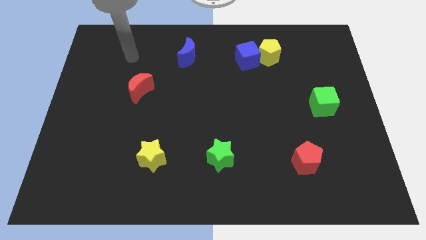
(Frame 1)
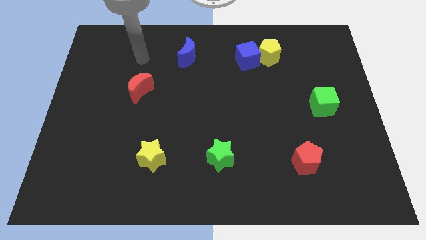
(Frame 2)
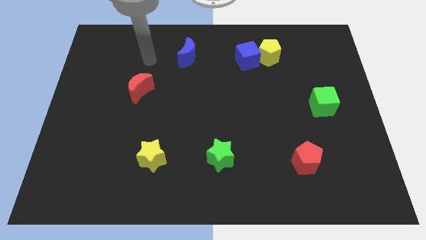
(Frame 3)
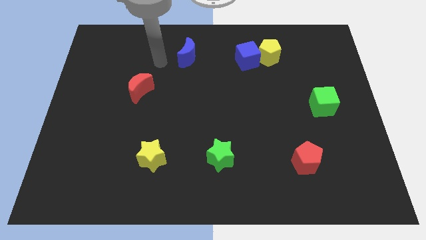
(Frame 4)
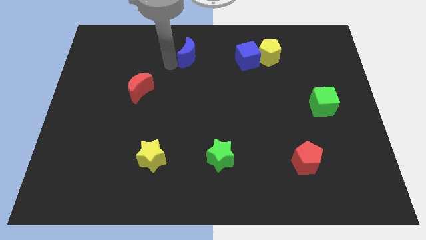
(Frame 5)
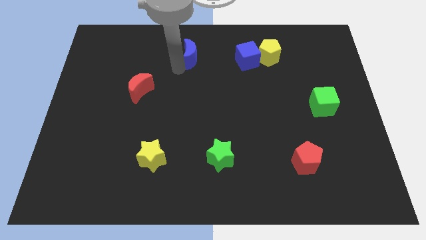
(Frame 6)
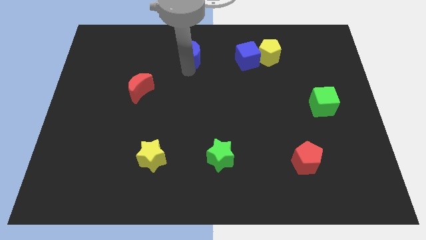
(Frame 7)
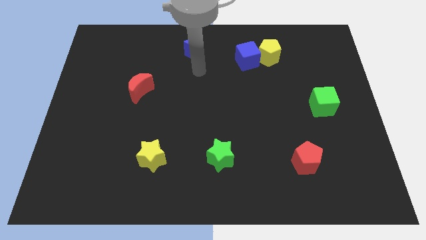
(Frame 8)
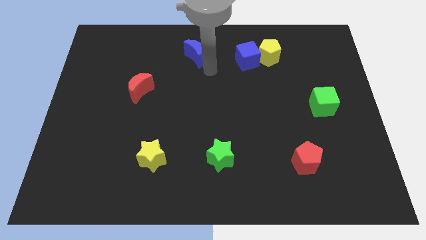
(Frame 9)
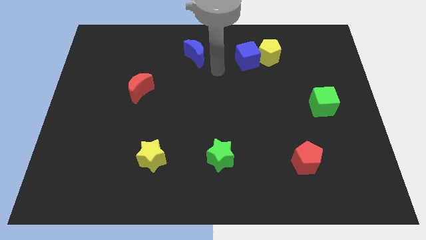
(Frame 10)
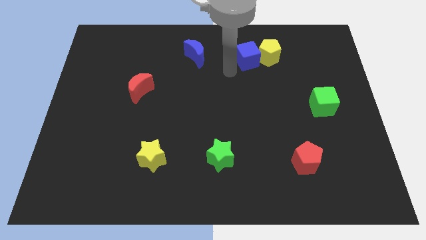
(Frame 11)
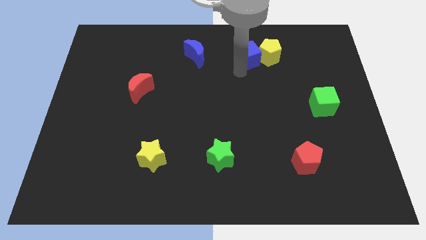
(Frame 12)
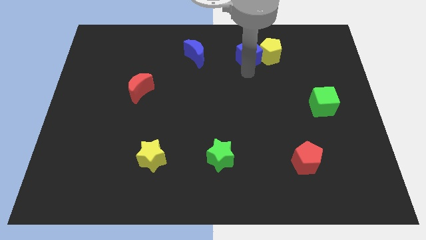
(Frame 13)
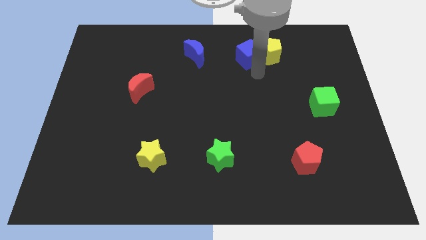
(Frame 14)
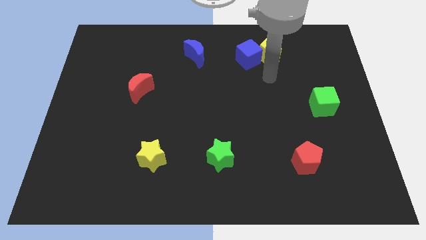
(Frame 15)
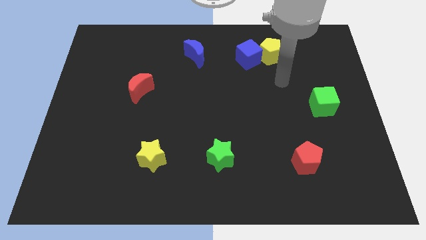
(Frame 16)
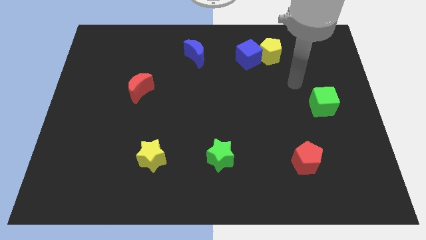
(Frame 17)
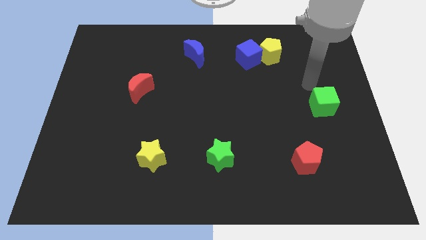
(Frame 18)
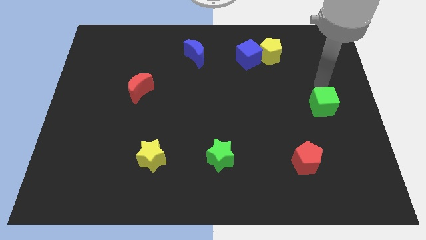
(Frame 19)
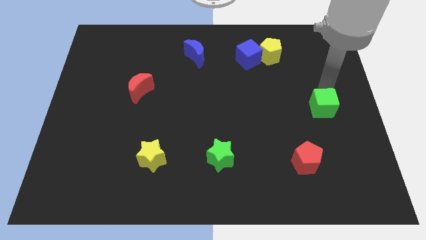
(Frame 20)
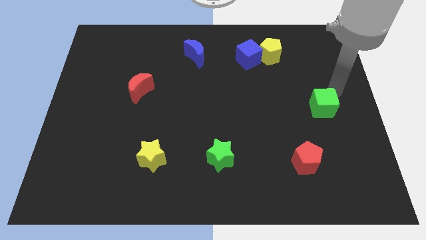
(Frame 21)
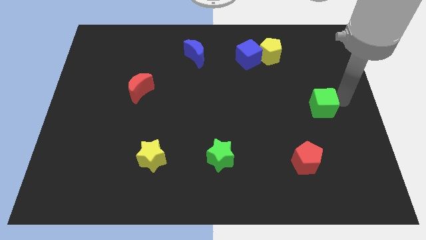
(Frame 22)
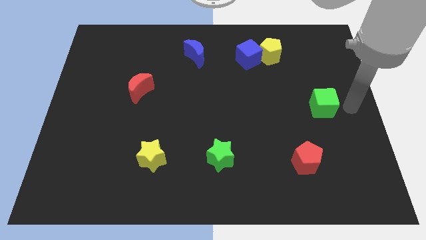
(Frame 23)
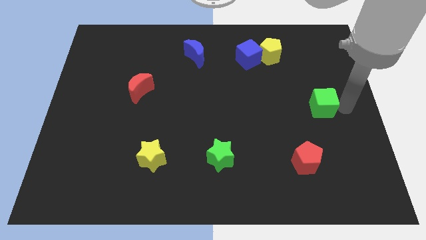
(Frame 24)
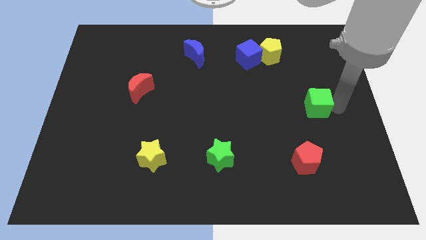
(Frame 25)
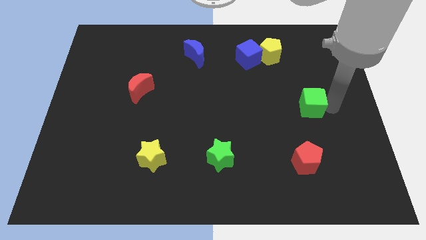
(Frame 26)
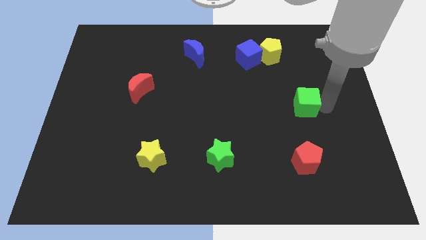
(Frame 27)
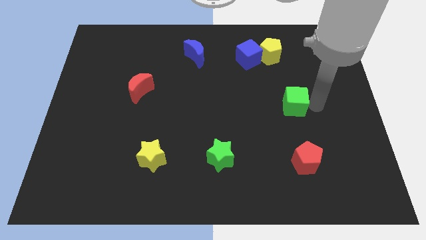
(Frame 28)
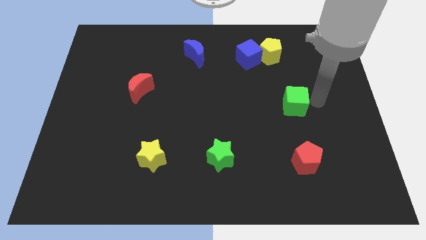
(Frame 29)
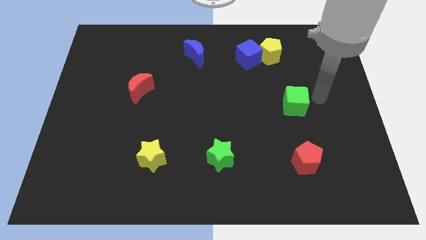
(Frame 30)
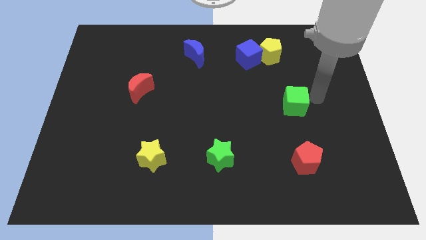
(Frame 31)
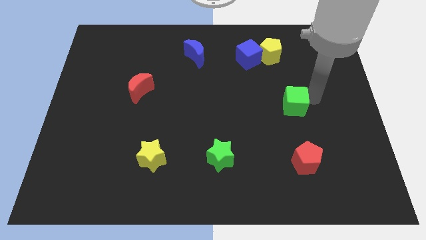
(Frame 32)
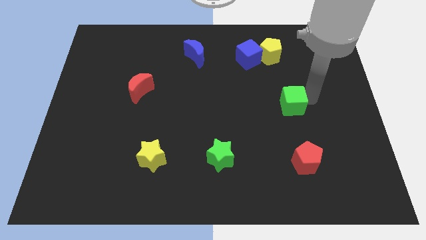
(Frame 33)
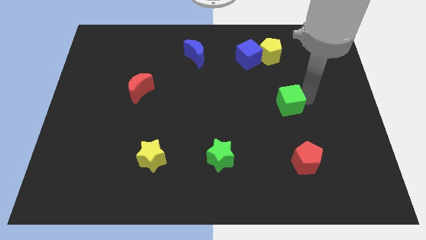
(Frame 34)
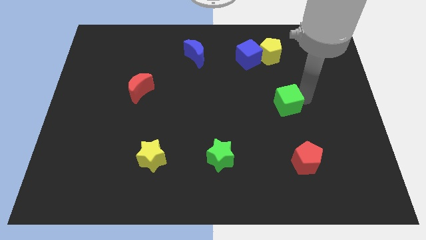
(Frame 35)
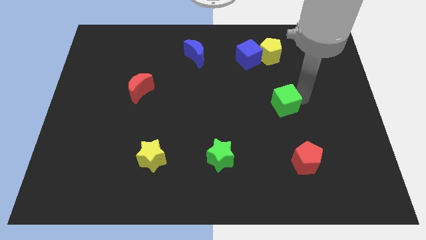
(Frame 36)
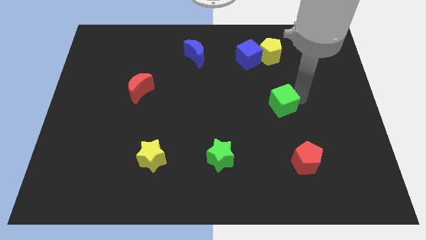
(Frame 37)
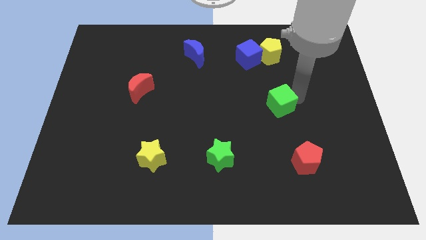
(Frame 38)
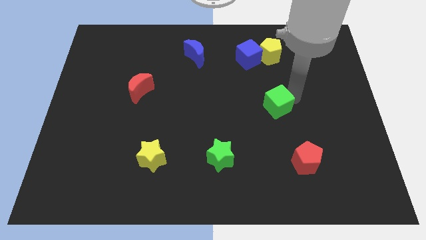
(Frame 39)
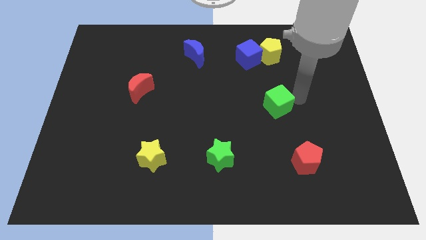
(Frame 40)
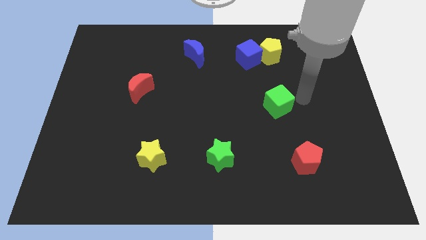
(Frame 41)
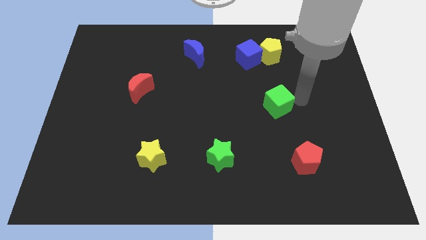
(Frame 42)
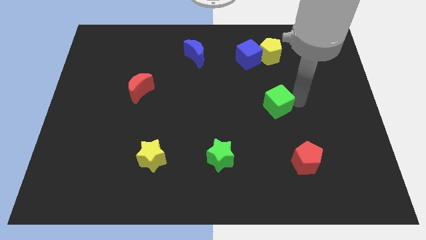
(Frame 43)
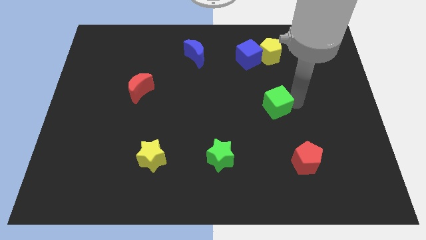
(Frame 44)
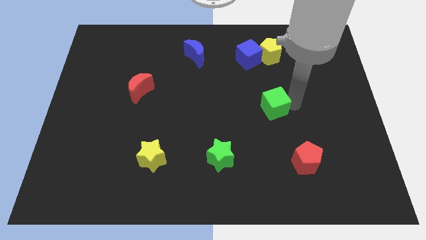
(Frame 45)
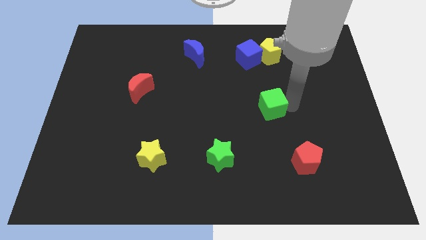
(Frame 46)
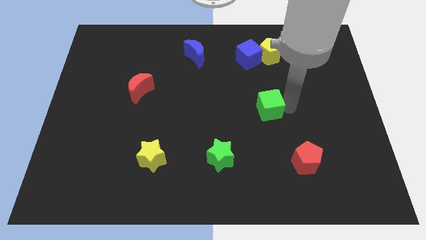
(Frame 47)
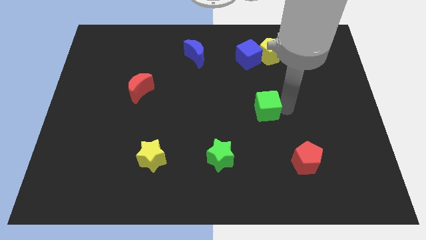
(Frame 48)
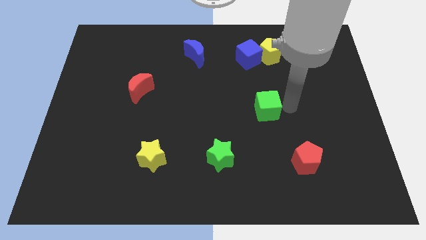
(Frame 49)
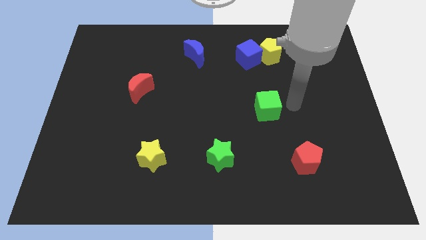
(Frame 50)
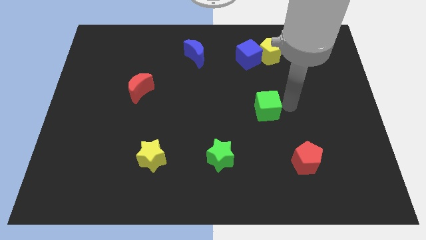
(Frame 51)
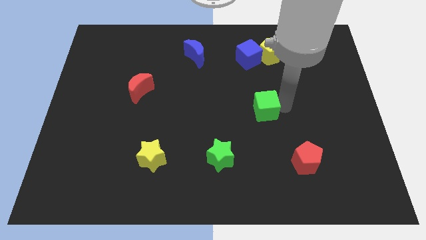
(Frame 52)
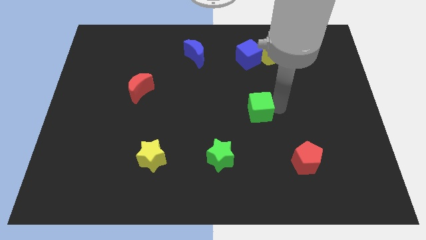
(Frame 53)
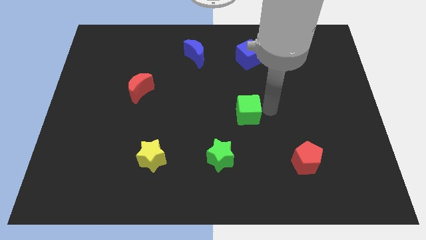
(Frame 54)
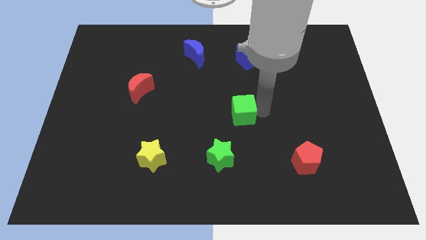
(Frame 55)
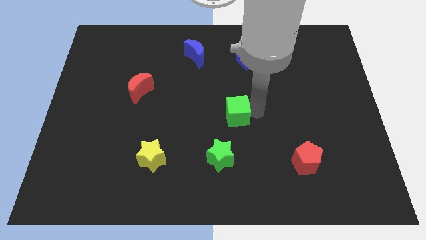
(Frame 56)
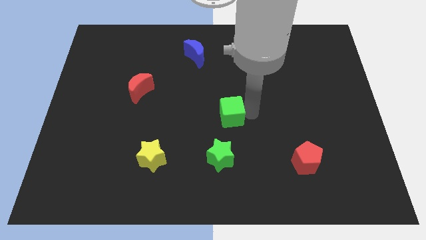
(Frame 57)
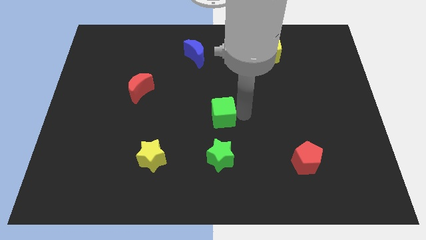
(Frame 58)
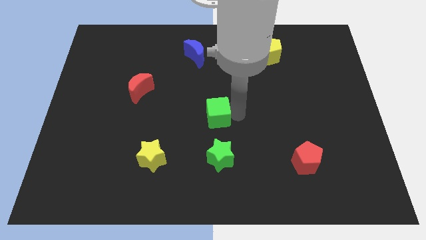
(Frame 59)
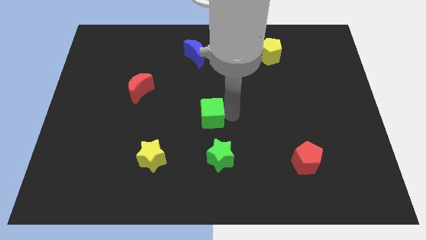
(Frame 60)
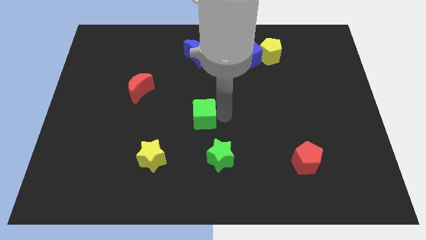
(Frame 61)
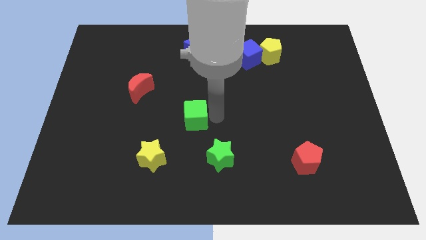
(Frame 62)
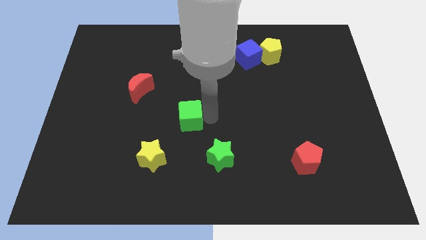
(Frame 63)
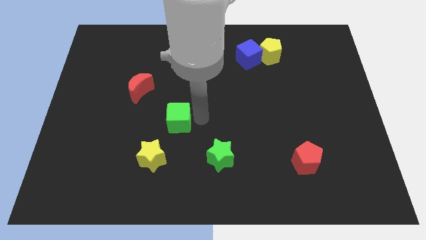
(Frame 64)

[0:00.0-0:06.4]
move the green cube to the top side of the yellow star

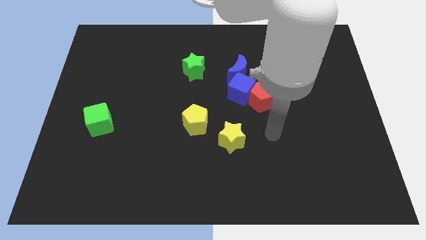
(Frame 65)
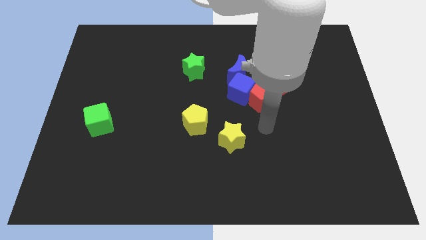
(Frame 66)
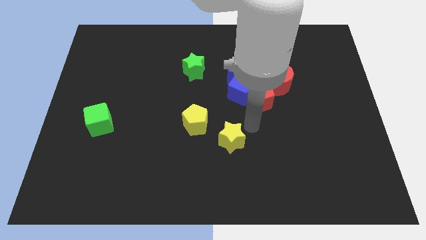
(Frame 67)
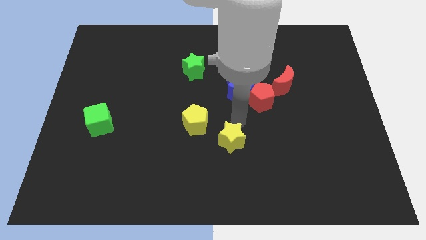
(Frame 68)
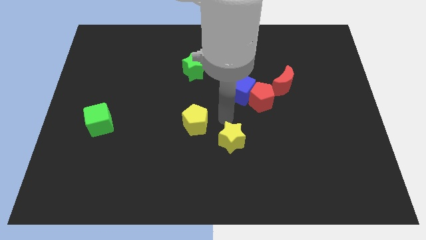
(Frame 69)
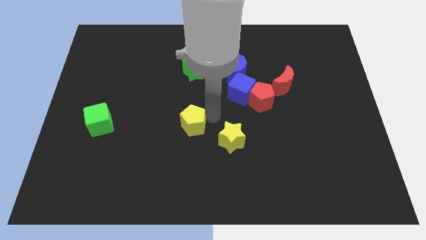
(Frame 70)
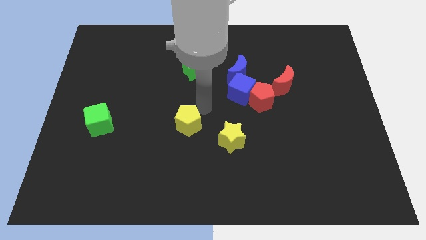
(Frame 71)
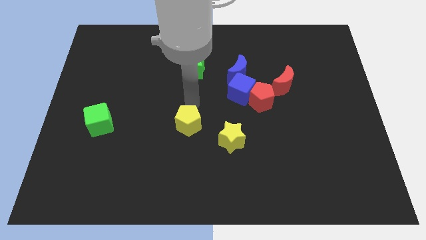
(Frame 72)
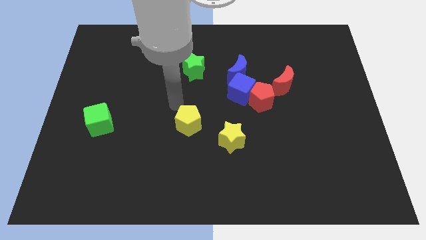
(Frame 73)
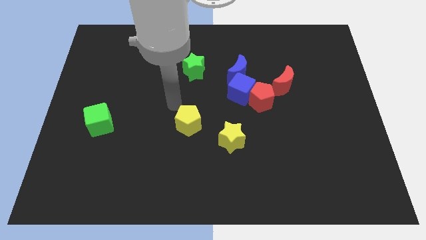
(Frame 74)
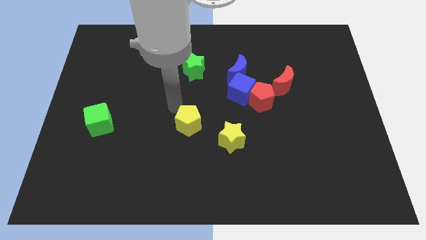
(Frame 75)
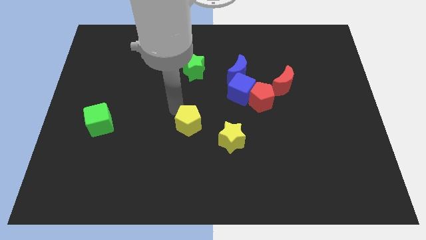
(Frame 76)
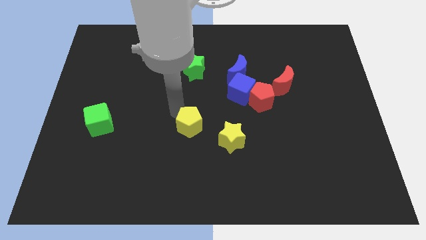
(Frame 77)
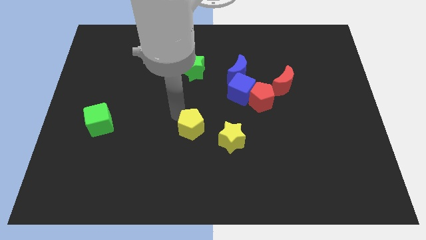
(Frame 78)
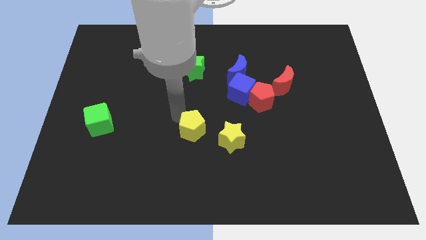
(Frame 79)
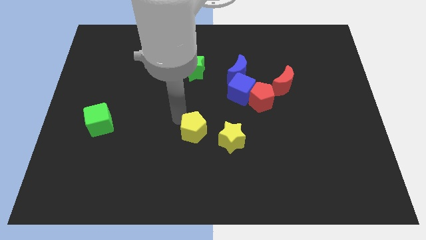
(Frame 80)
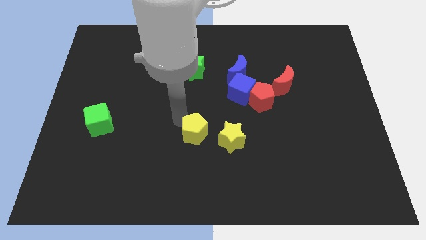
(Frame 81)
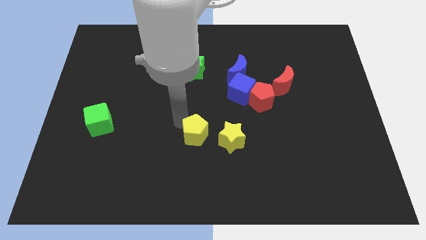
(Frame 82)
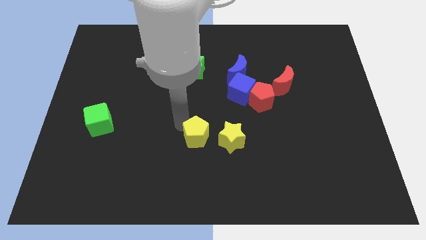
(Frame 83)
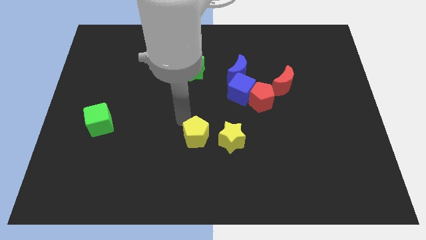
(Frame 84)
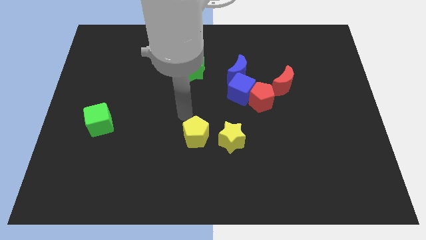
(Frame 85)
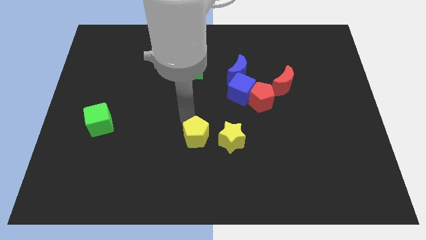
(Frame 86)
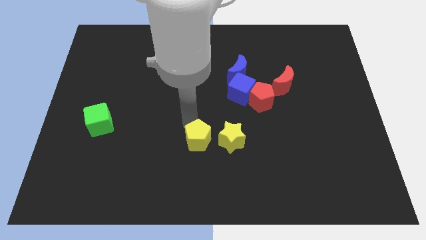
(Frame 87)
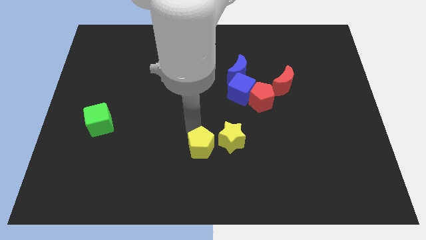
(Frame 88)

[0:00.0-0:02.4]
move the yellow pentagon to the bottom left of the yellow star
